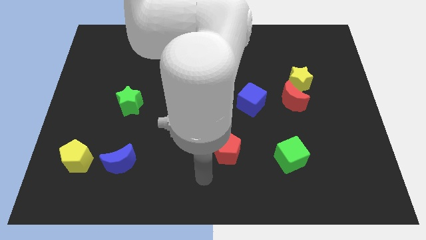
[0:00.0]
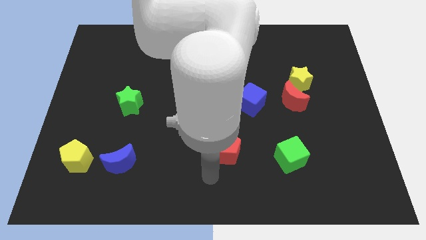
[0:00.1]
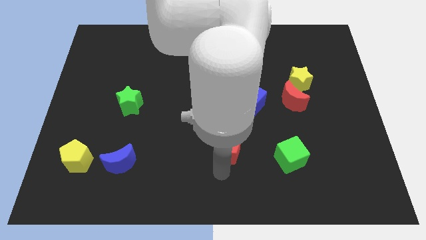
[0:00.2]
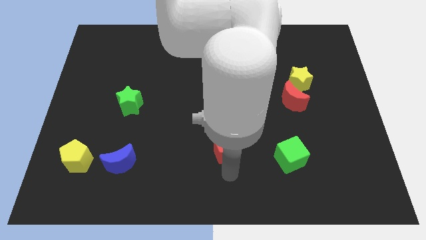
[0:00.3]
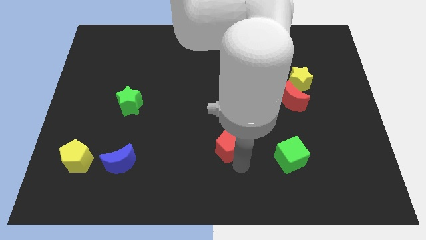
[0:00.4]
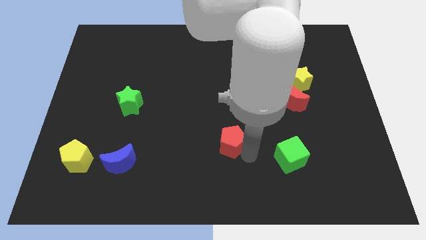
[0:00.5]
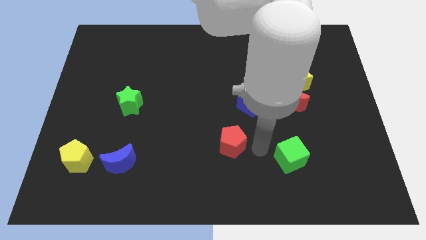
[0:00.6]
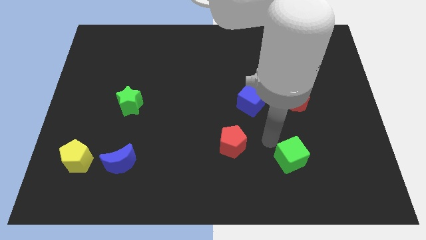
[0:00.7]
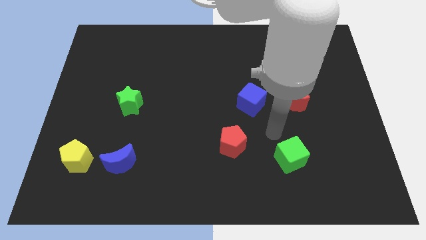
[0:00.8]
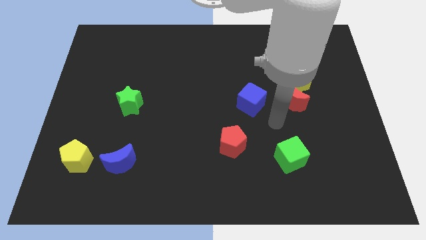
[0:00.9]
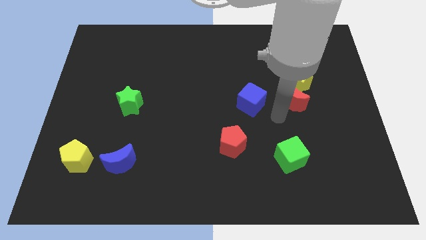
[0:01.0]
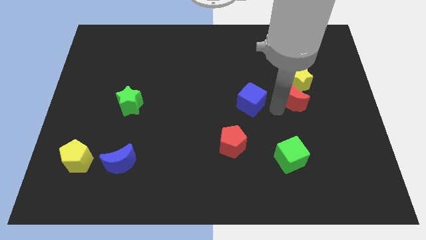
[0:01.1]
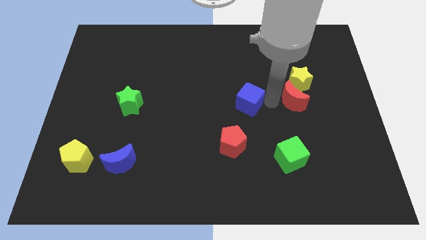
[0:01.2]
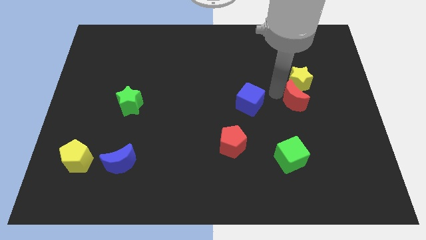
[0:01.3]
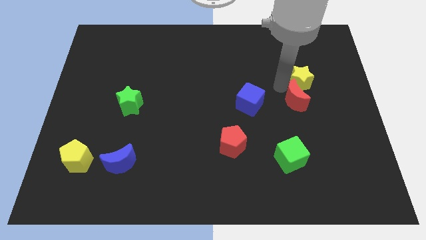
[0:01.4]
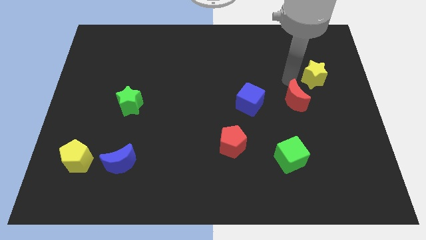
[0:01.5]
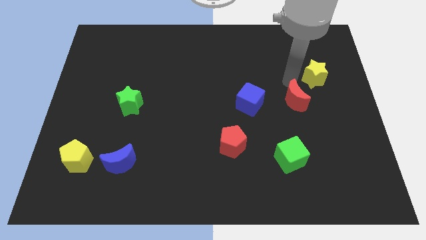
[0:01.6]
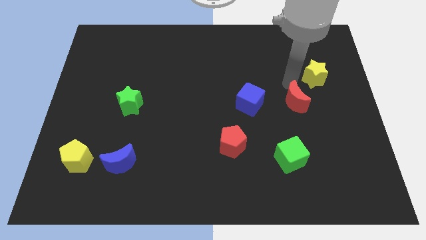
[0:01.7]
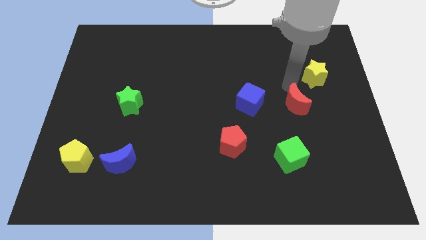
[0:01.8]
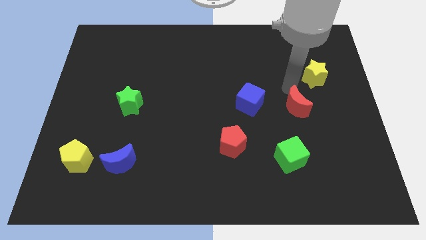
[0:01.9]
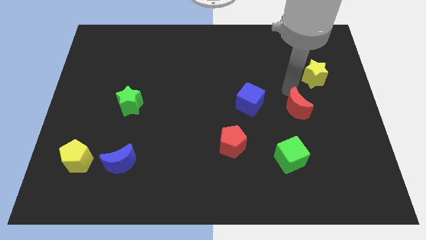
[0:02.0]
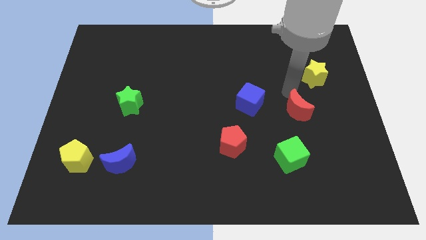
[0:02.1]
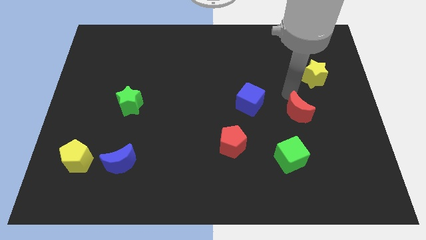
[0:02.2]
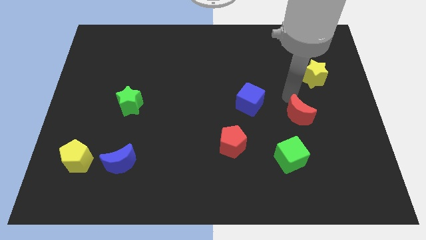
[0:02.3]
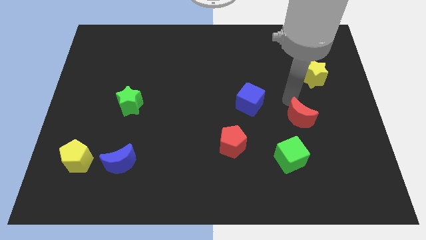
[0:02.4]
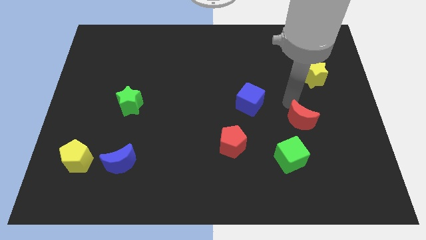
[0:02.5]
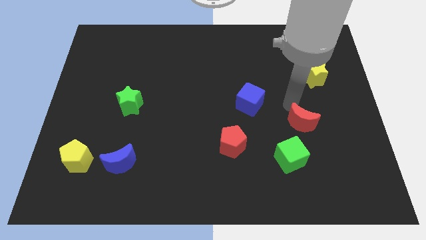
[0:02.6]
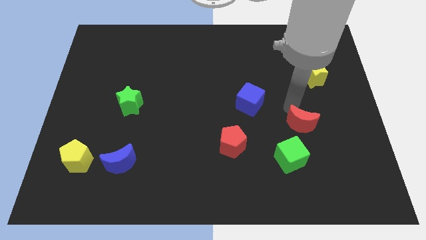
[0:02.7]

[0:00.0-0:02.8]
slide the red moon somewhat downwards

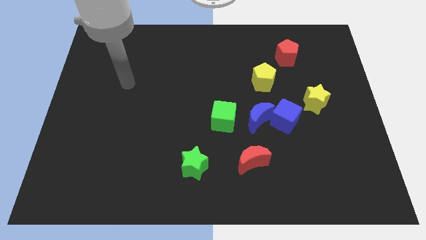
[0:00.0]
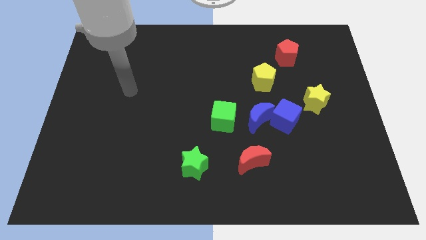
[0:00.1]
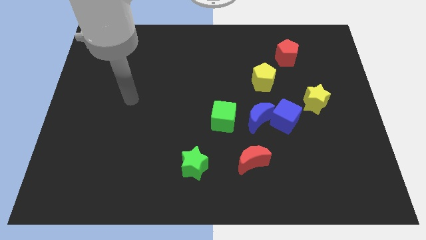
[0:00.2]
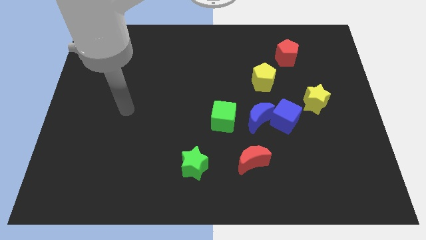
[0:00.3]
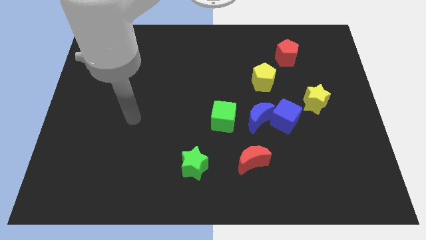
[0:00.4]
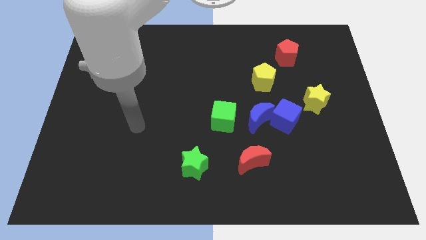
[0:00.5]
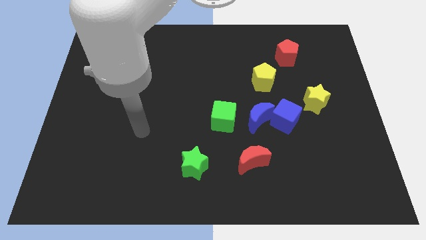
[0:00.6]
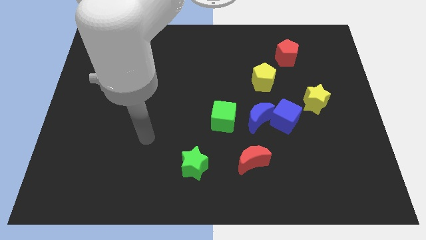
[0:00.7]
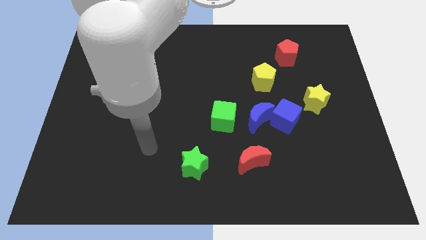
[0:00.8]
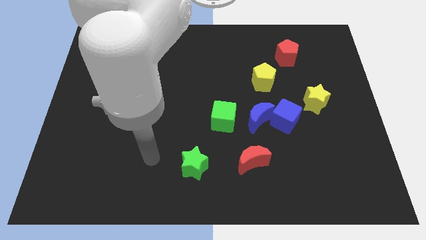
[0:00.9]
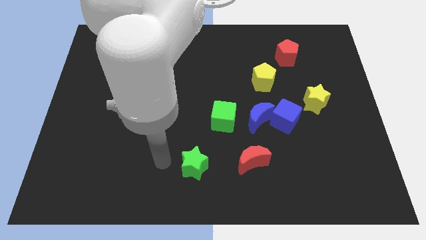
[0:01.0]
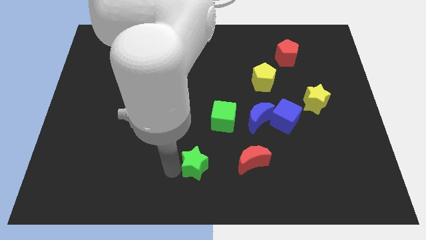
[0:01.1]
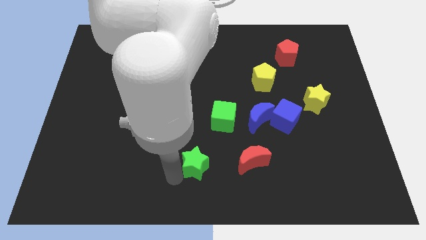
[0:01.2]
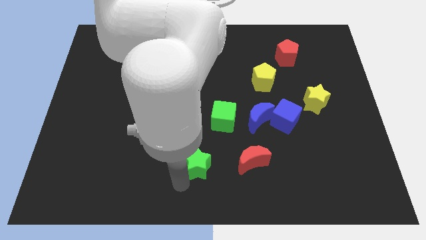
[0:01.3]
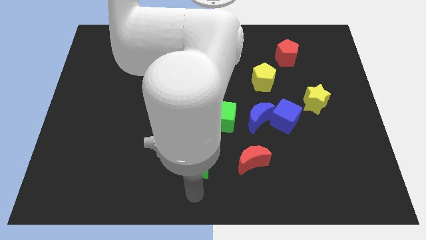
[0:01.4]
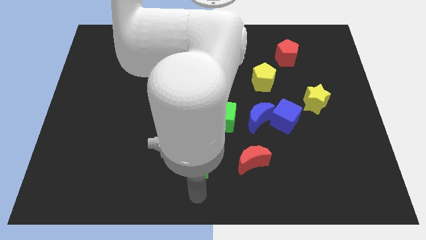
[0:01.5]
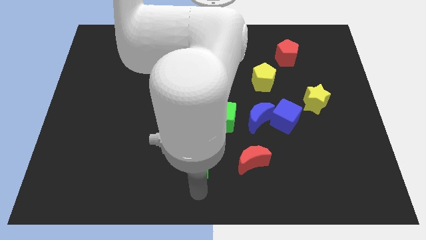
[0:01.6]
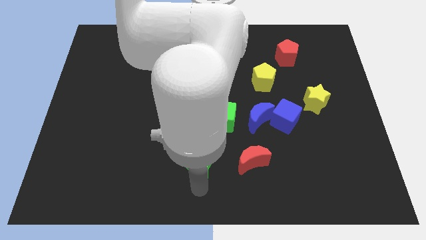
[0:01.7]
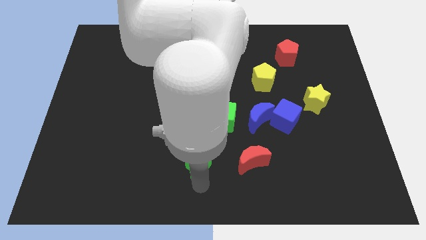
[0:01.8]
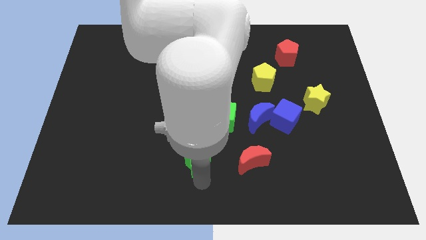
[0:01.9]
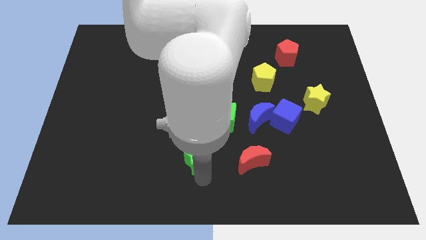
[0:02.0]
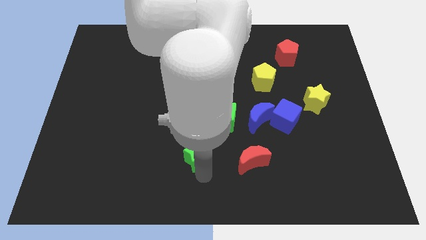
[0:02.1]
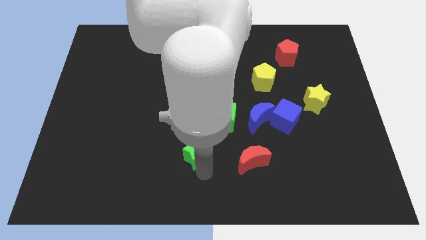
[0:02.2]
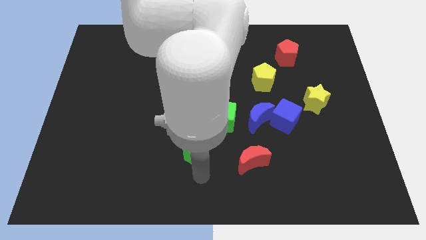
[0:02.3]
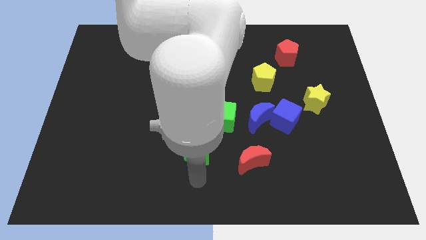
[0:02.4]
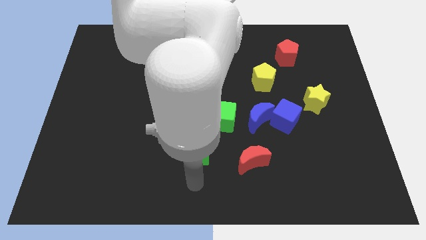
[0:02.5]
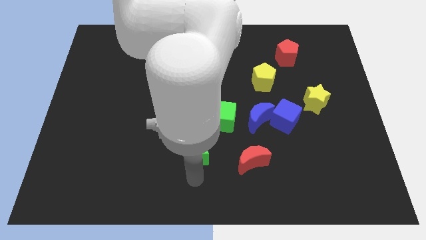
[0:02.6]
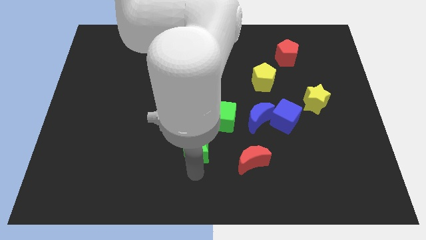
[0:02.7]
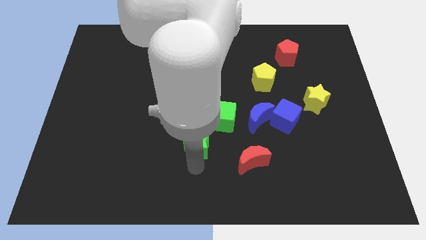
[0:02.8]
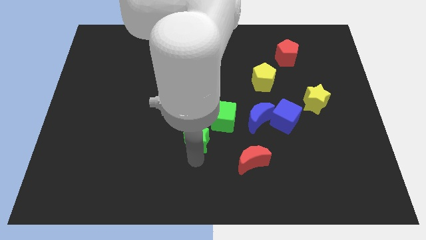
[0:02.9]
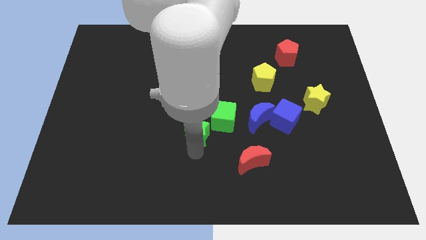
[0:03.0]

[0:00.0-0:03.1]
push the green star upwards a little bit

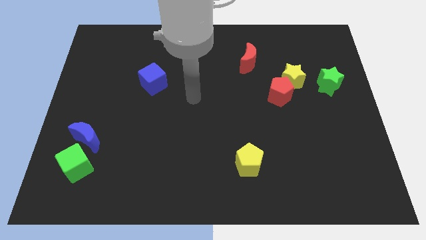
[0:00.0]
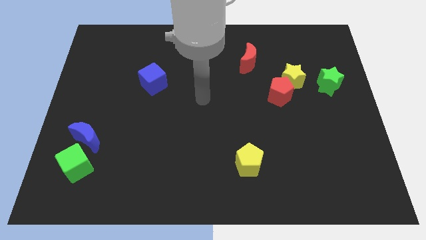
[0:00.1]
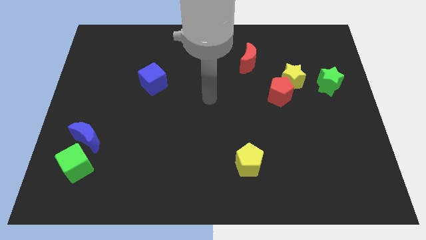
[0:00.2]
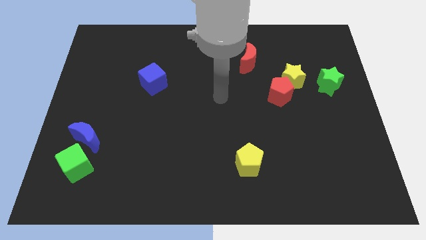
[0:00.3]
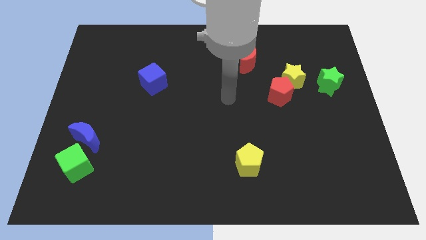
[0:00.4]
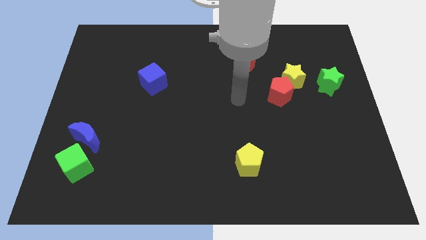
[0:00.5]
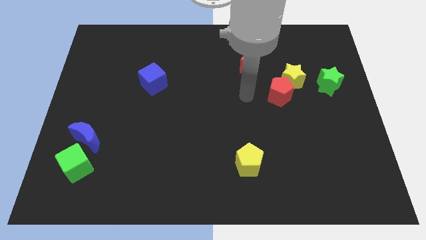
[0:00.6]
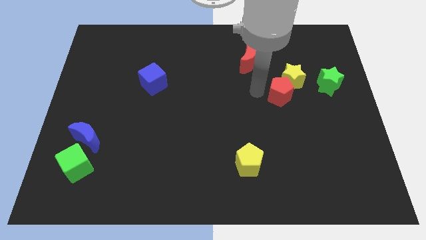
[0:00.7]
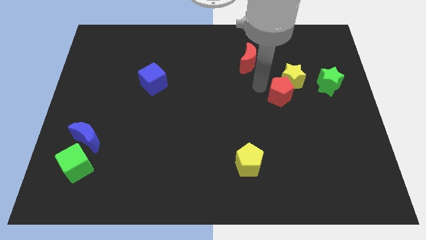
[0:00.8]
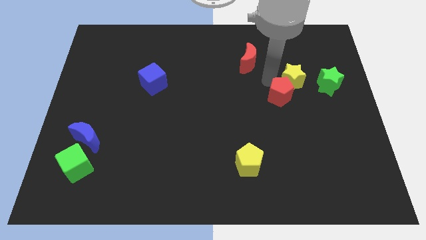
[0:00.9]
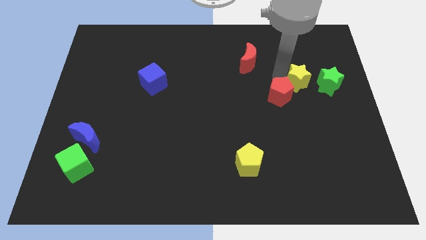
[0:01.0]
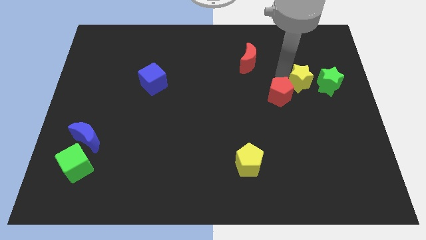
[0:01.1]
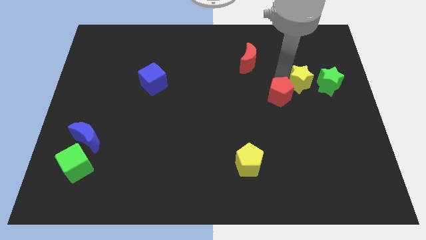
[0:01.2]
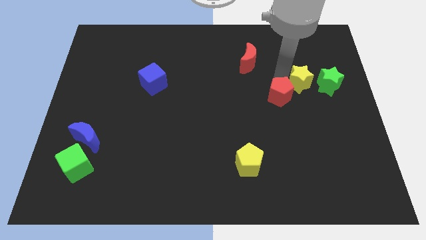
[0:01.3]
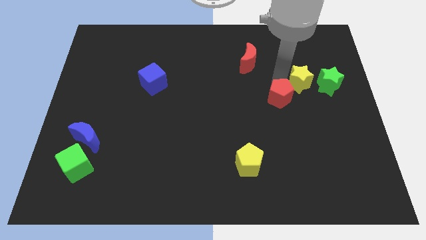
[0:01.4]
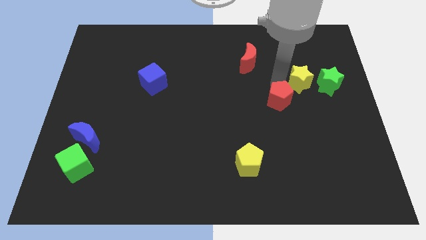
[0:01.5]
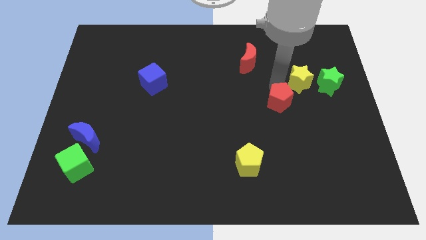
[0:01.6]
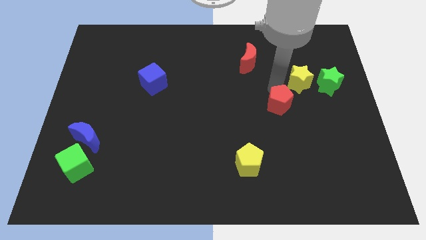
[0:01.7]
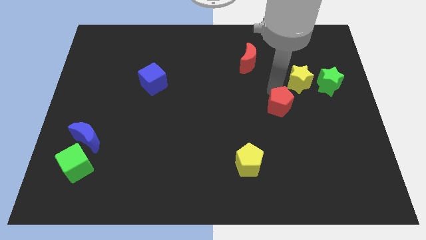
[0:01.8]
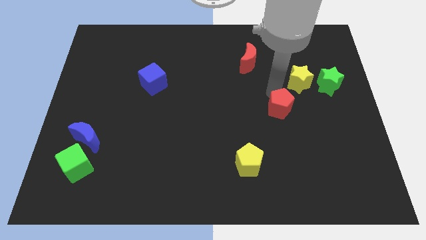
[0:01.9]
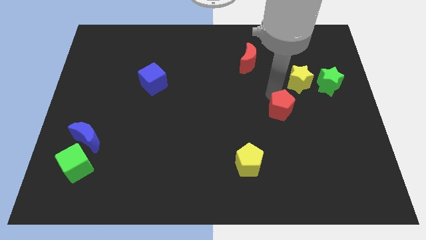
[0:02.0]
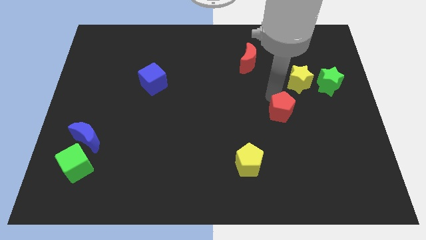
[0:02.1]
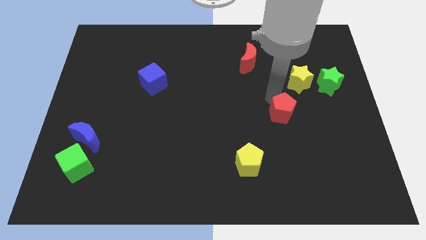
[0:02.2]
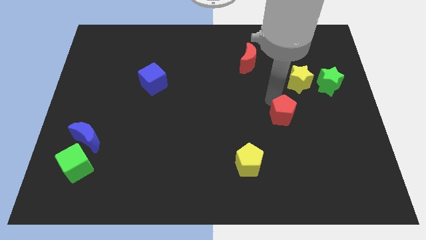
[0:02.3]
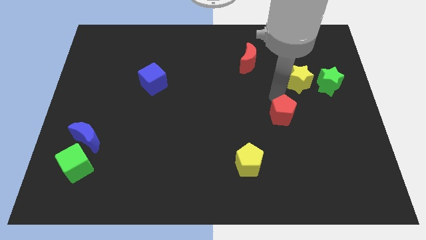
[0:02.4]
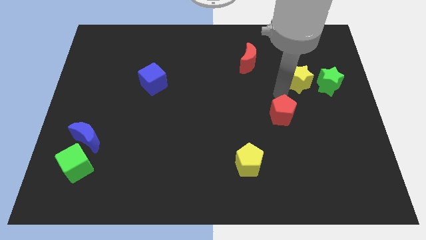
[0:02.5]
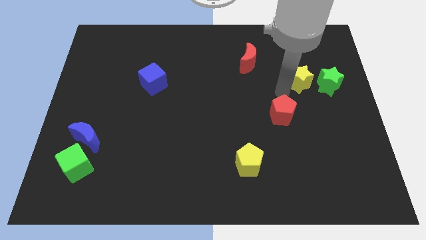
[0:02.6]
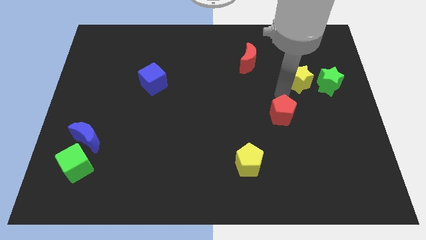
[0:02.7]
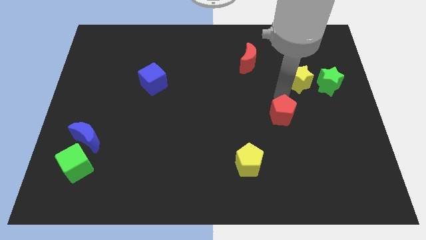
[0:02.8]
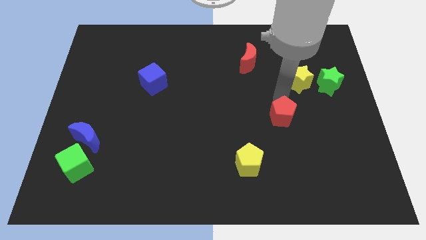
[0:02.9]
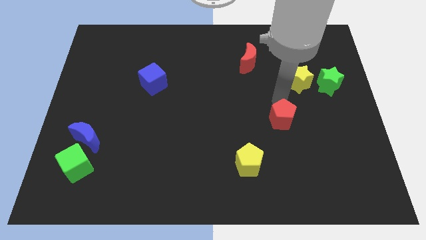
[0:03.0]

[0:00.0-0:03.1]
move the red pentagon a little bit down
